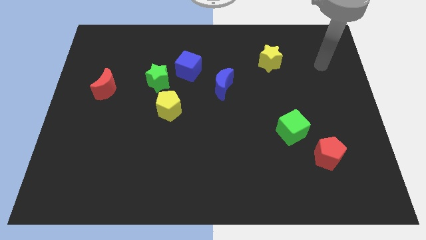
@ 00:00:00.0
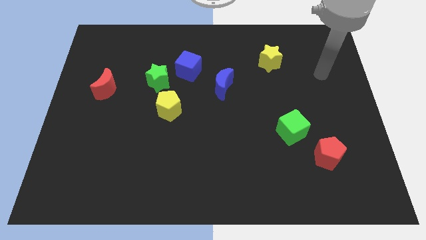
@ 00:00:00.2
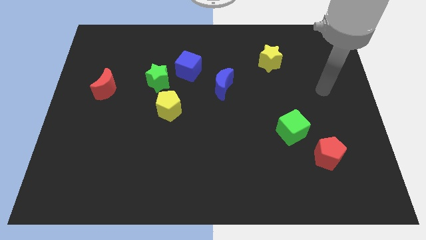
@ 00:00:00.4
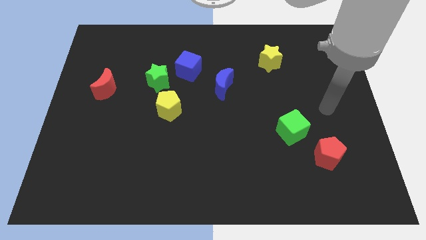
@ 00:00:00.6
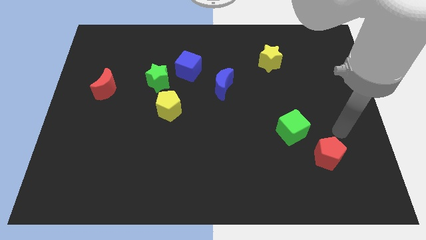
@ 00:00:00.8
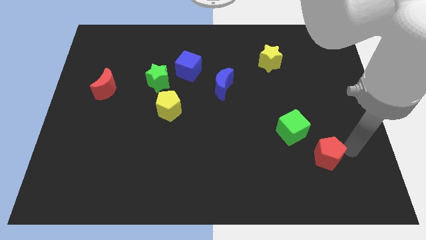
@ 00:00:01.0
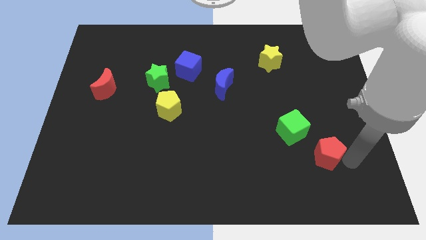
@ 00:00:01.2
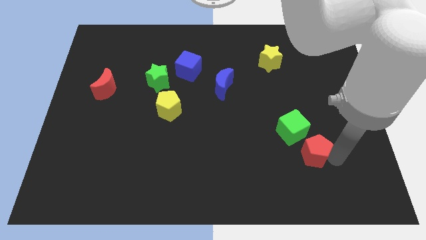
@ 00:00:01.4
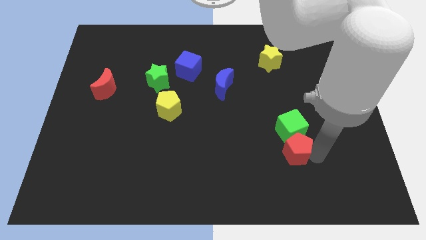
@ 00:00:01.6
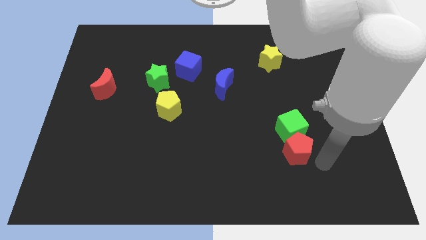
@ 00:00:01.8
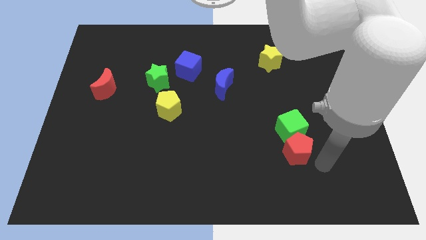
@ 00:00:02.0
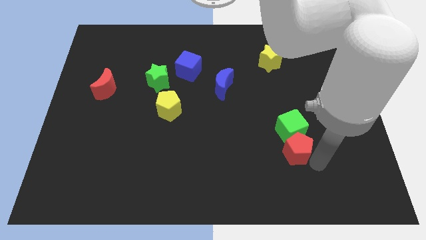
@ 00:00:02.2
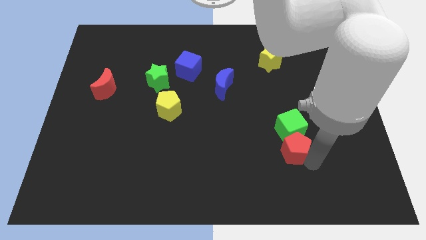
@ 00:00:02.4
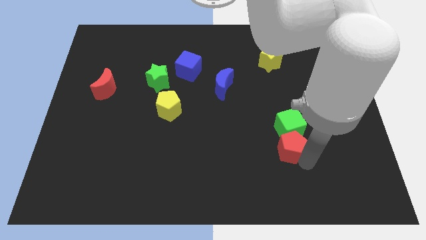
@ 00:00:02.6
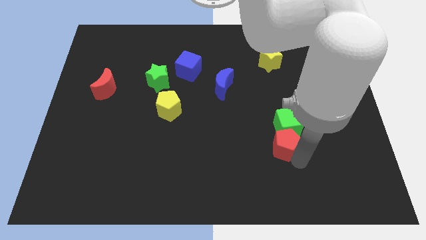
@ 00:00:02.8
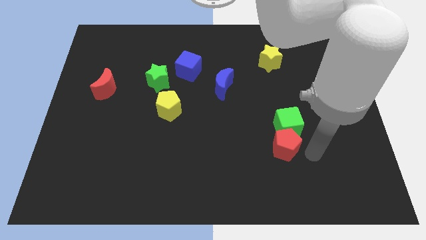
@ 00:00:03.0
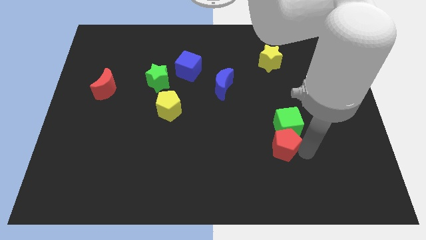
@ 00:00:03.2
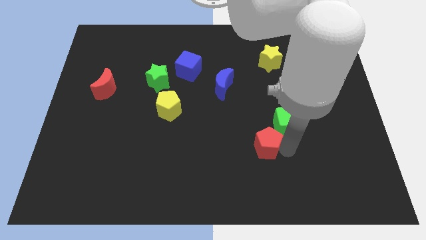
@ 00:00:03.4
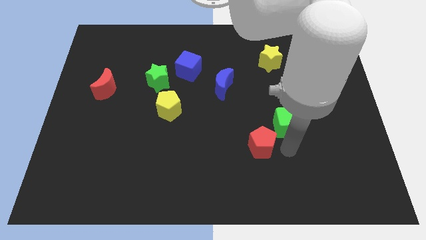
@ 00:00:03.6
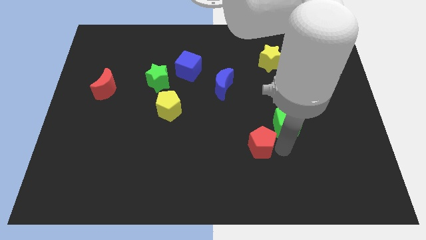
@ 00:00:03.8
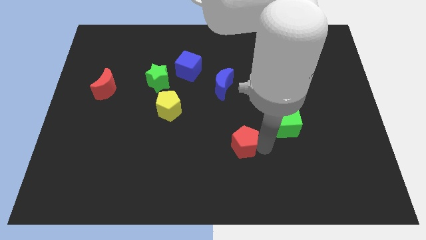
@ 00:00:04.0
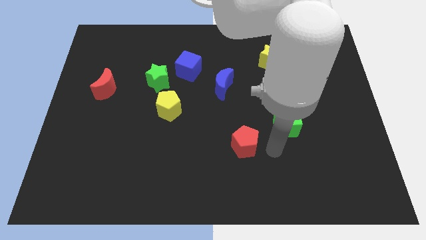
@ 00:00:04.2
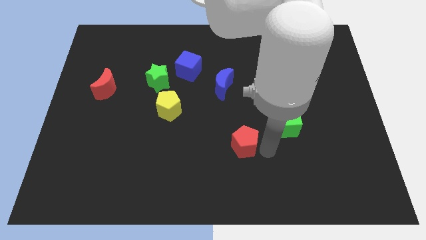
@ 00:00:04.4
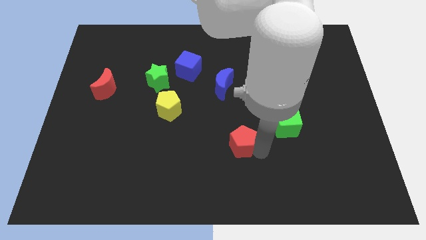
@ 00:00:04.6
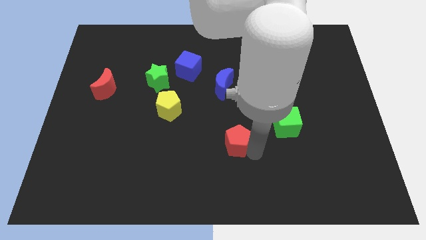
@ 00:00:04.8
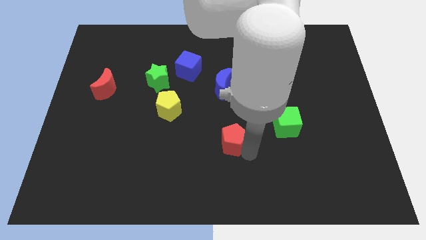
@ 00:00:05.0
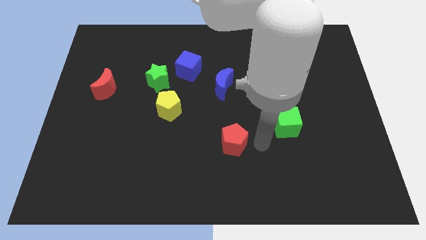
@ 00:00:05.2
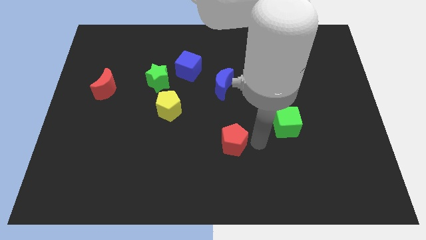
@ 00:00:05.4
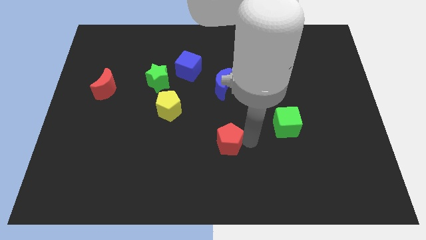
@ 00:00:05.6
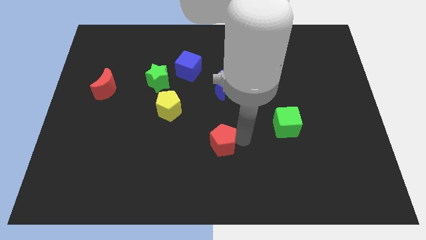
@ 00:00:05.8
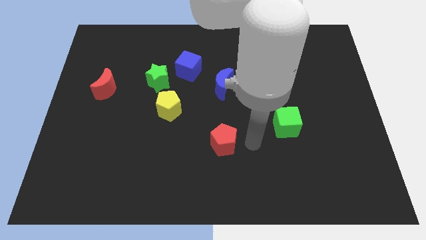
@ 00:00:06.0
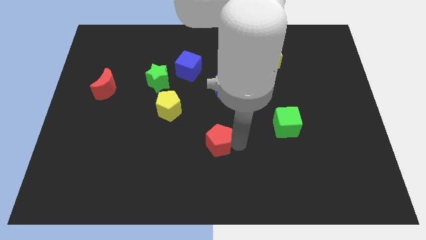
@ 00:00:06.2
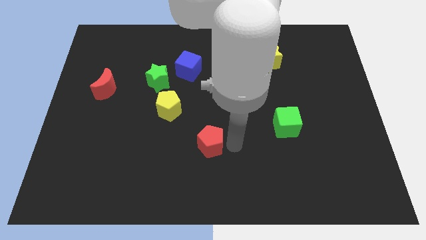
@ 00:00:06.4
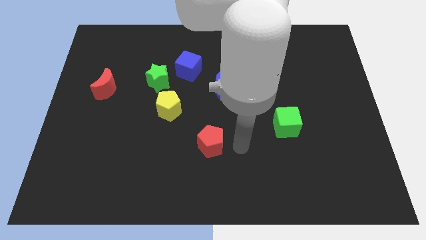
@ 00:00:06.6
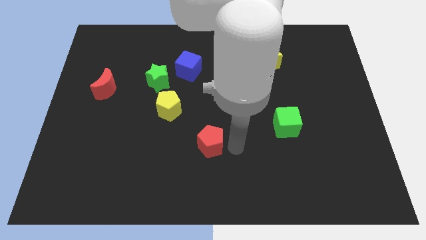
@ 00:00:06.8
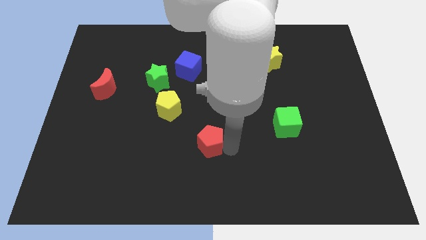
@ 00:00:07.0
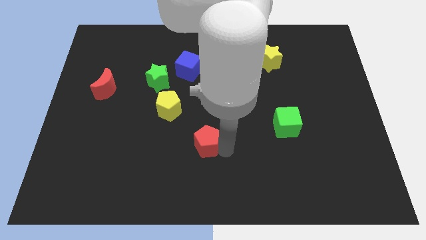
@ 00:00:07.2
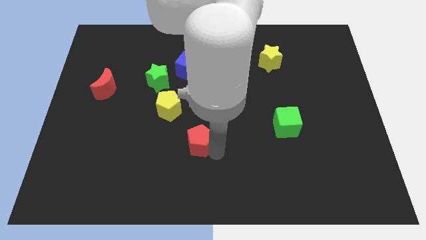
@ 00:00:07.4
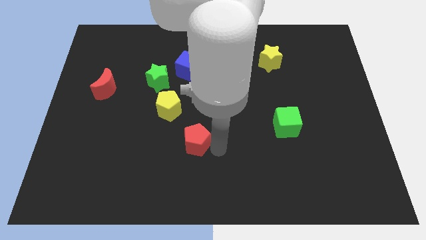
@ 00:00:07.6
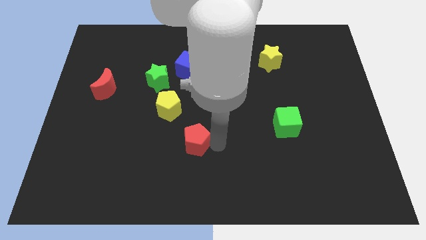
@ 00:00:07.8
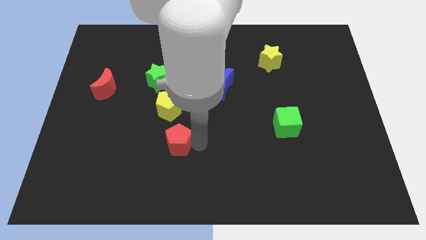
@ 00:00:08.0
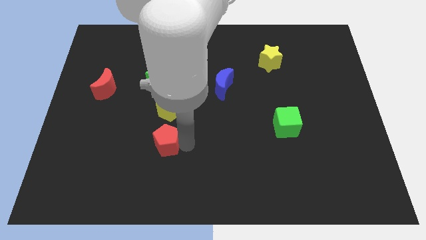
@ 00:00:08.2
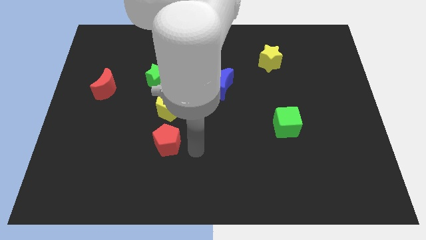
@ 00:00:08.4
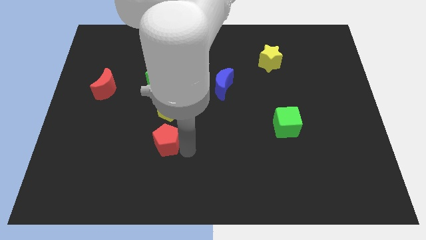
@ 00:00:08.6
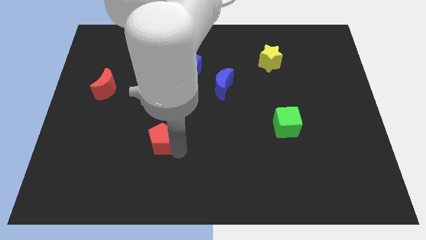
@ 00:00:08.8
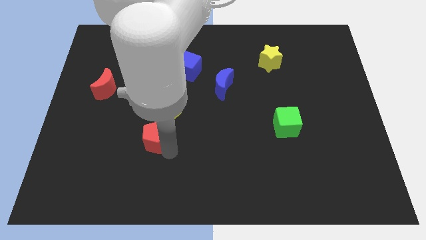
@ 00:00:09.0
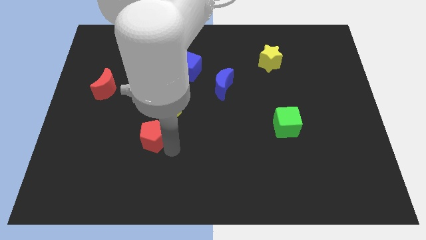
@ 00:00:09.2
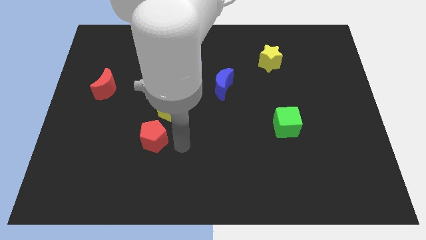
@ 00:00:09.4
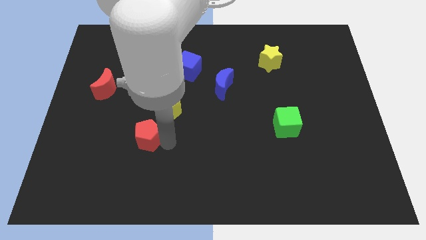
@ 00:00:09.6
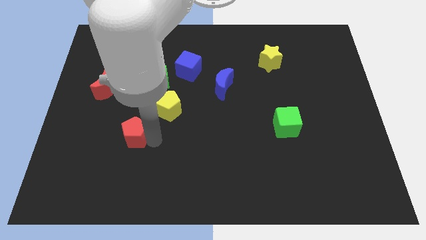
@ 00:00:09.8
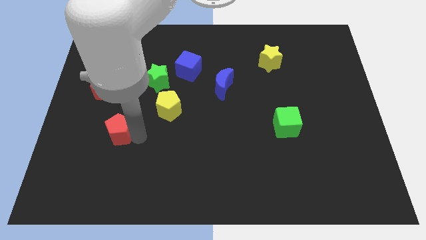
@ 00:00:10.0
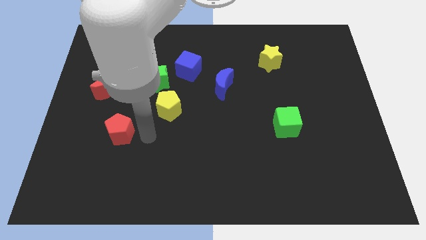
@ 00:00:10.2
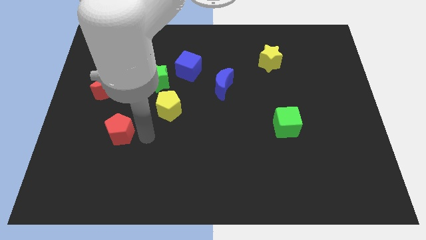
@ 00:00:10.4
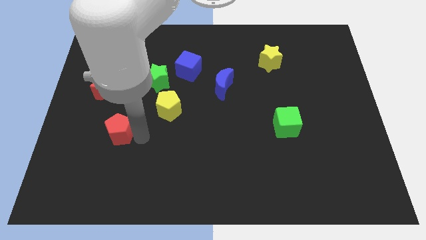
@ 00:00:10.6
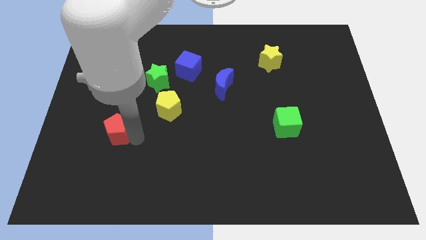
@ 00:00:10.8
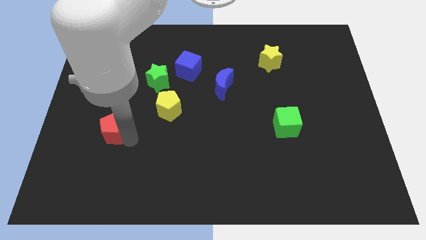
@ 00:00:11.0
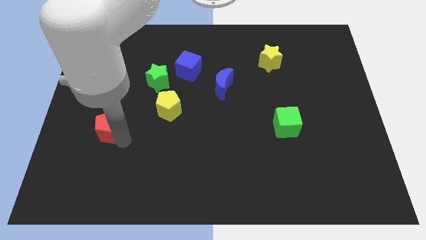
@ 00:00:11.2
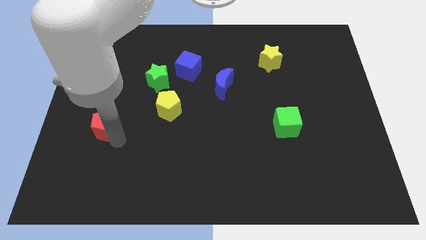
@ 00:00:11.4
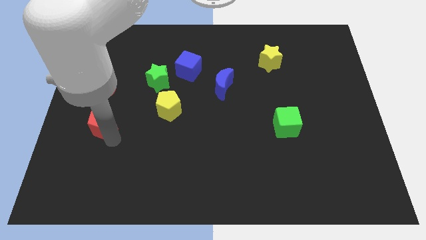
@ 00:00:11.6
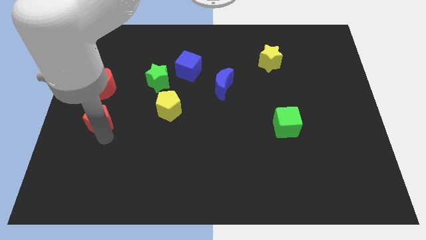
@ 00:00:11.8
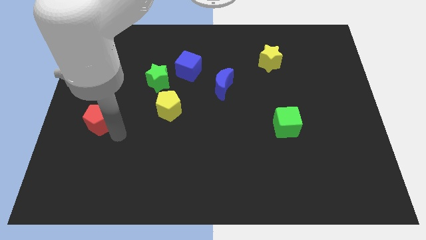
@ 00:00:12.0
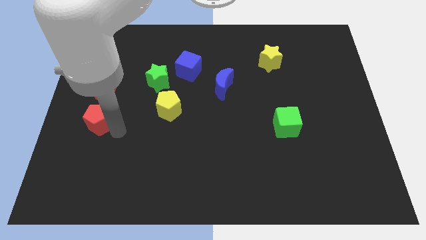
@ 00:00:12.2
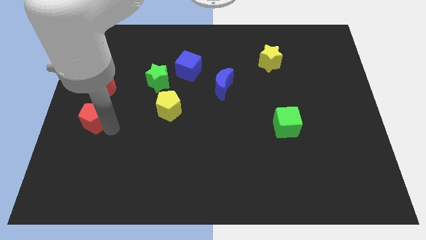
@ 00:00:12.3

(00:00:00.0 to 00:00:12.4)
put the red pentagon to the left side of the board
